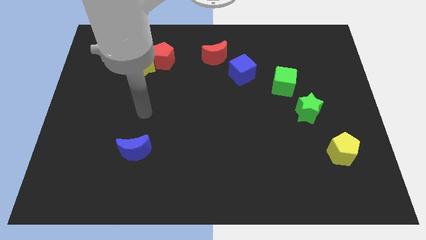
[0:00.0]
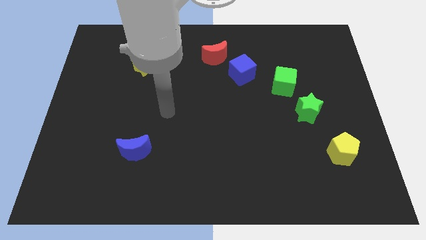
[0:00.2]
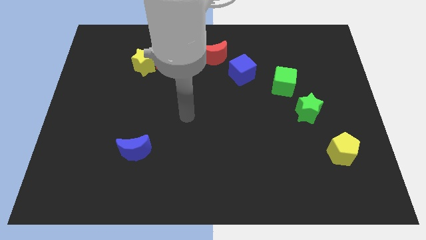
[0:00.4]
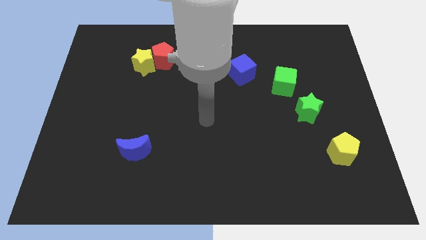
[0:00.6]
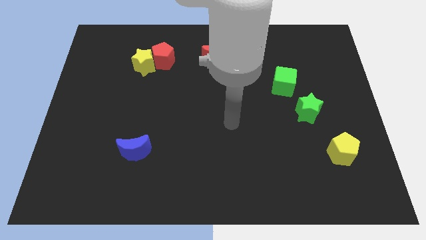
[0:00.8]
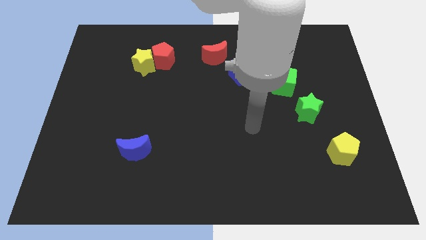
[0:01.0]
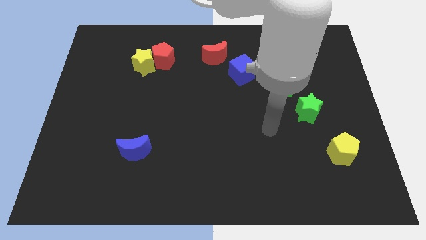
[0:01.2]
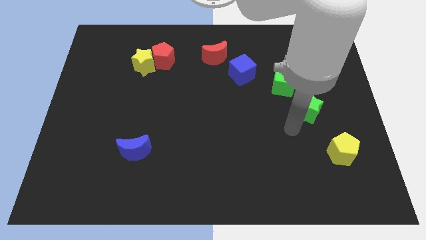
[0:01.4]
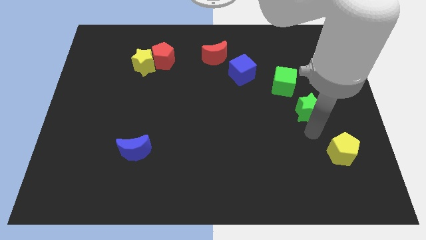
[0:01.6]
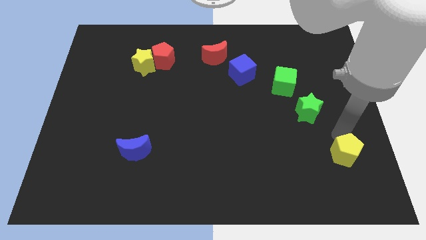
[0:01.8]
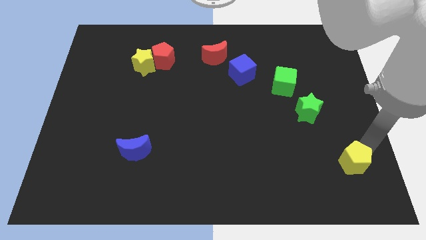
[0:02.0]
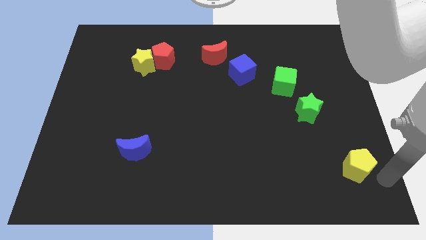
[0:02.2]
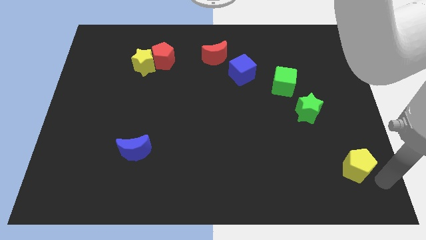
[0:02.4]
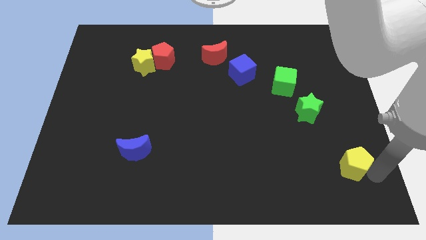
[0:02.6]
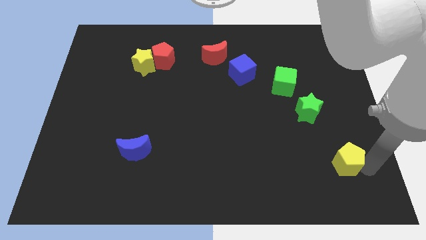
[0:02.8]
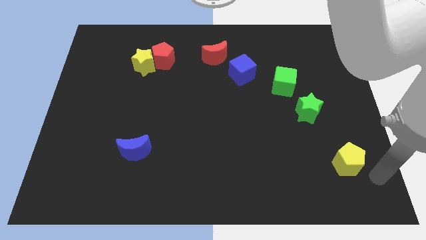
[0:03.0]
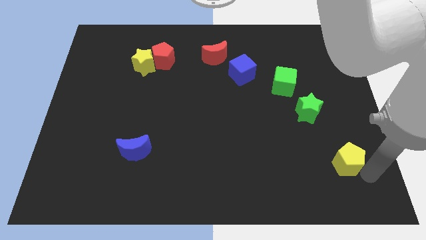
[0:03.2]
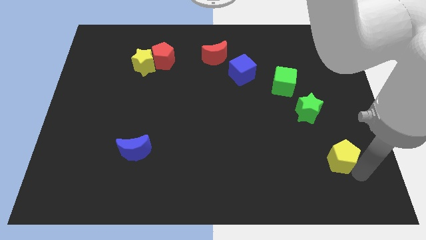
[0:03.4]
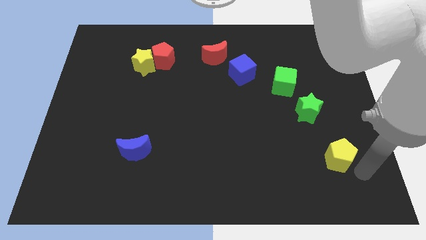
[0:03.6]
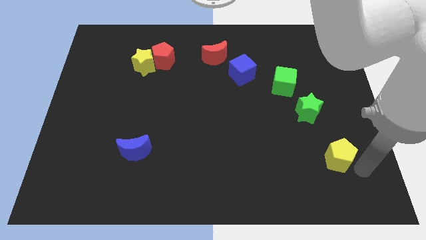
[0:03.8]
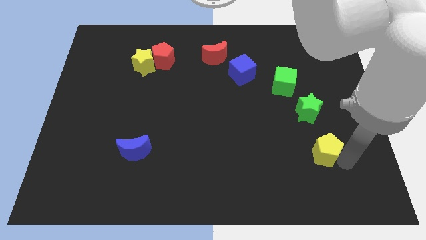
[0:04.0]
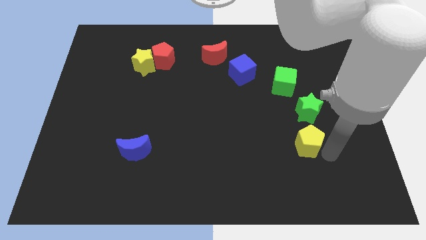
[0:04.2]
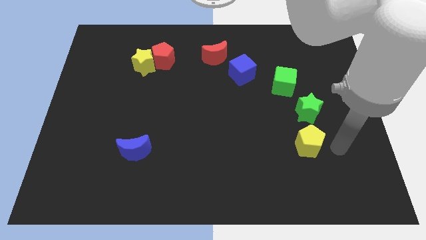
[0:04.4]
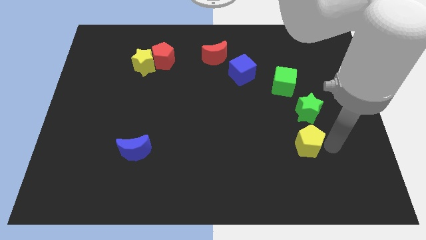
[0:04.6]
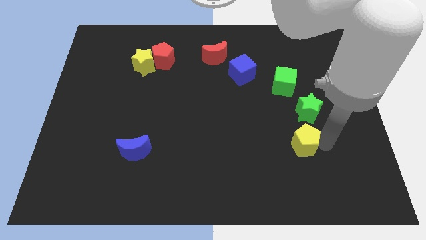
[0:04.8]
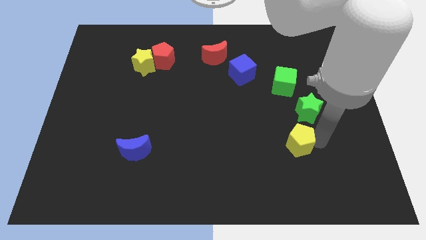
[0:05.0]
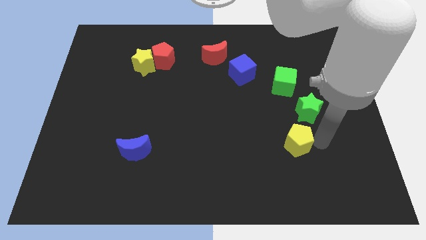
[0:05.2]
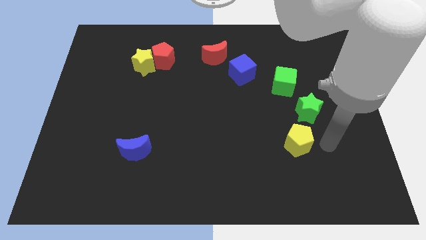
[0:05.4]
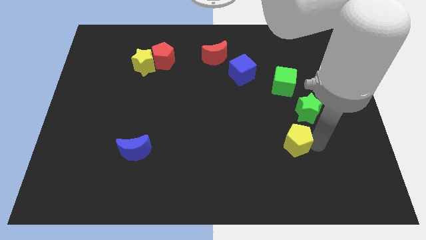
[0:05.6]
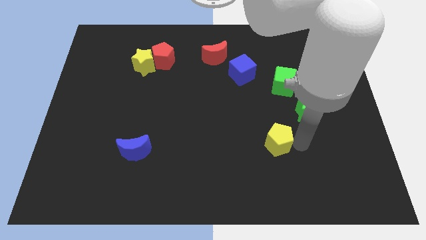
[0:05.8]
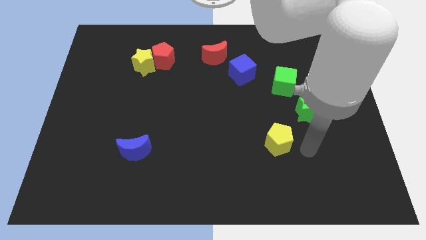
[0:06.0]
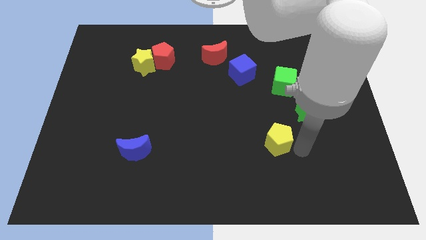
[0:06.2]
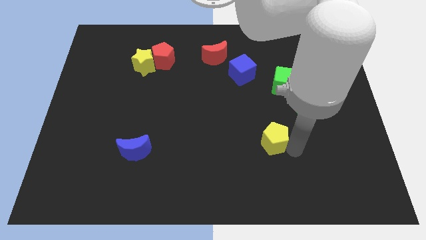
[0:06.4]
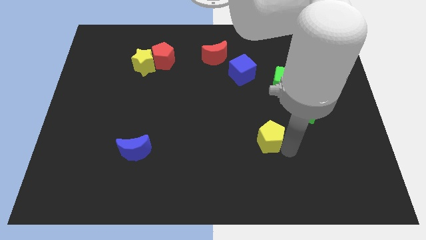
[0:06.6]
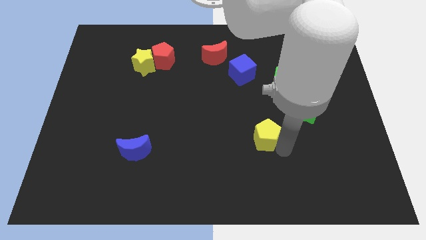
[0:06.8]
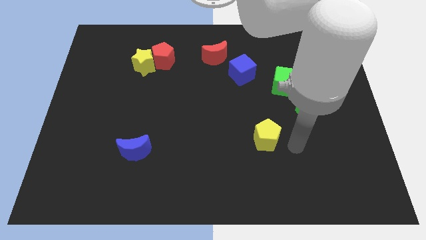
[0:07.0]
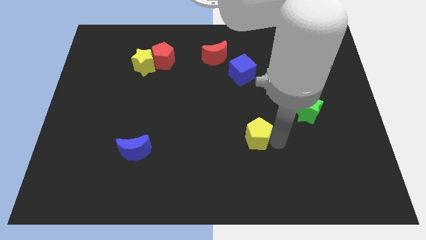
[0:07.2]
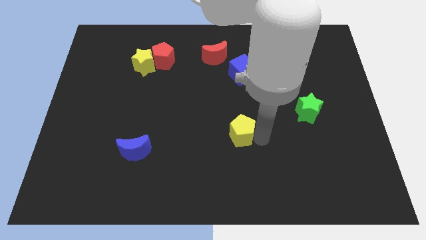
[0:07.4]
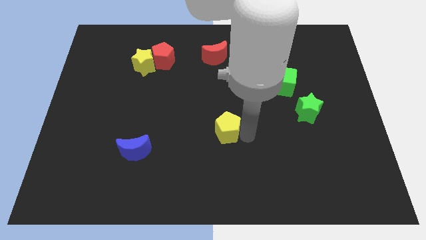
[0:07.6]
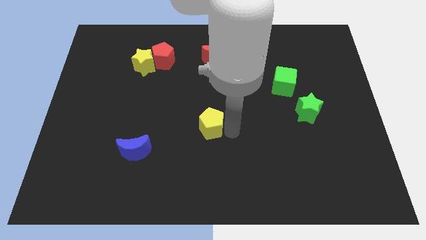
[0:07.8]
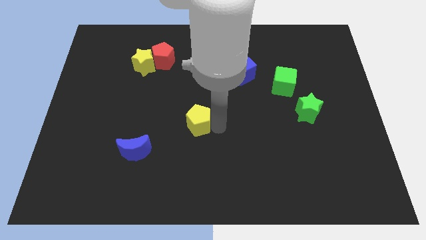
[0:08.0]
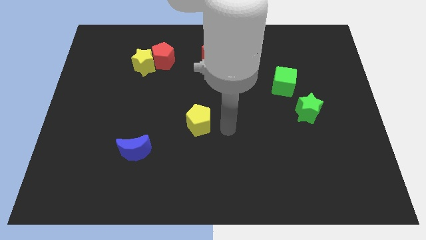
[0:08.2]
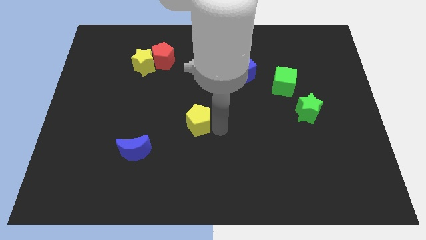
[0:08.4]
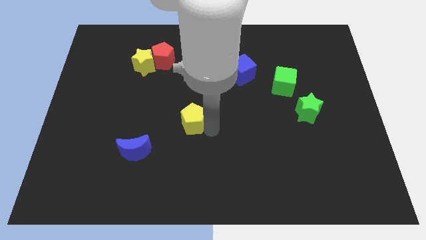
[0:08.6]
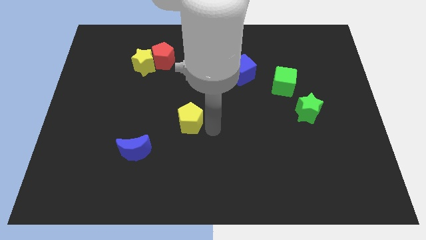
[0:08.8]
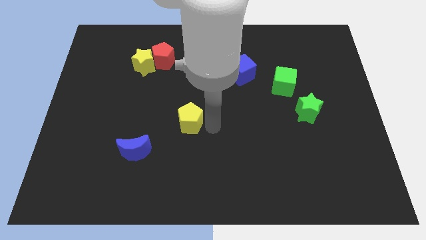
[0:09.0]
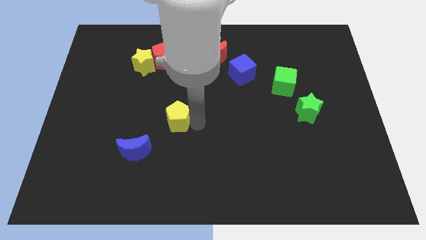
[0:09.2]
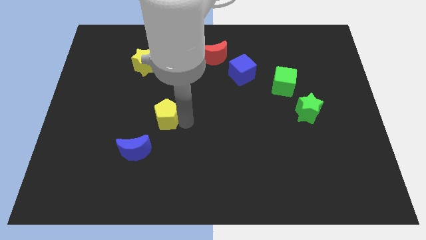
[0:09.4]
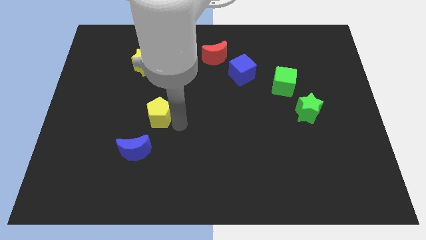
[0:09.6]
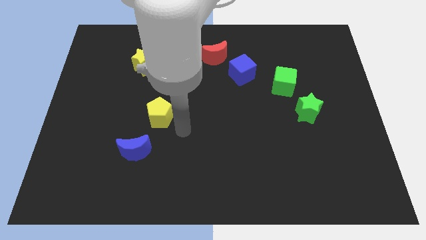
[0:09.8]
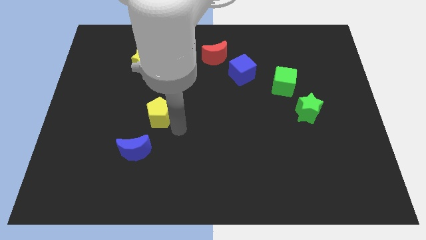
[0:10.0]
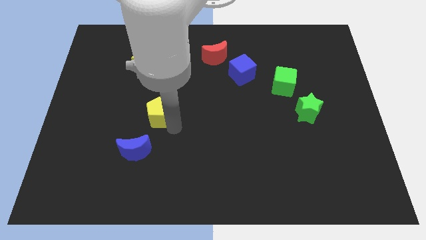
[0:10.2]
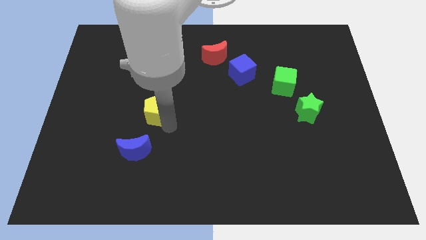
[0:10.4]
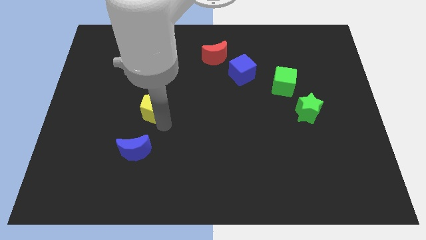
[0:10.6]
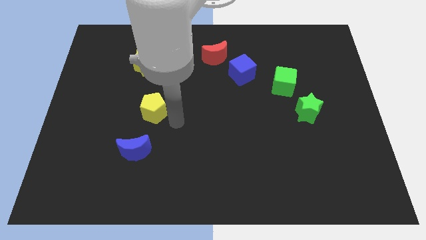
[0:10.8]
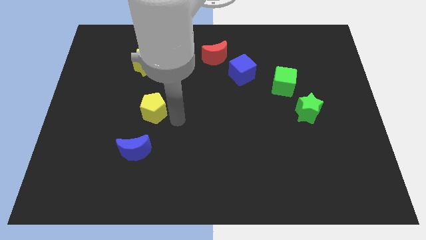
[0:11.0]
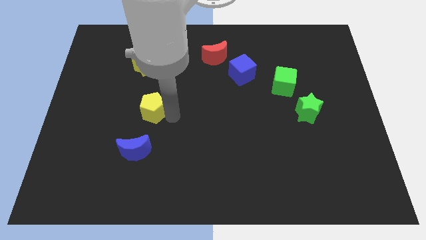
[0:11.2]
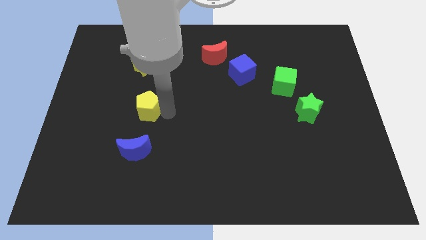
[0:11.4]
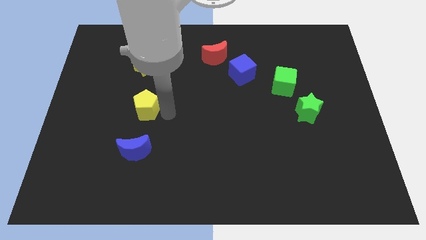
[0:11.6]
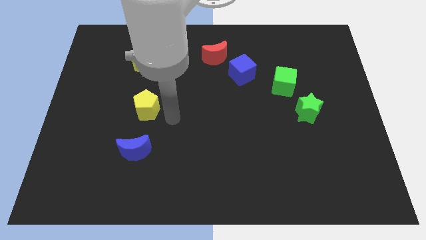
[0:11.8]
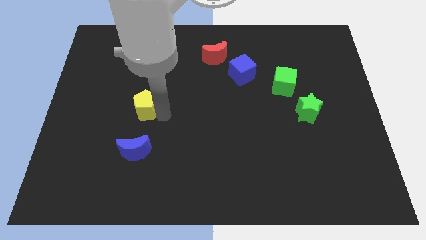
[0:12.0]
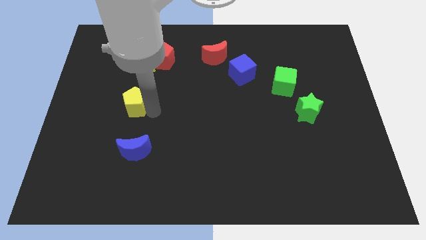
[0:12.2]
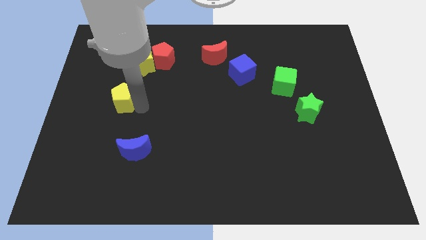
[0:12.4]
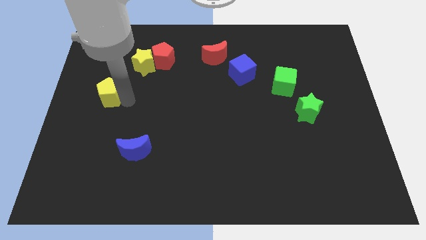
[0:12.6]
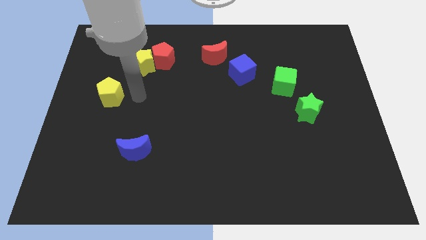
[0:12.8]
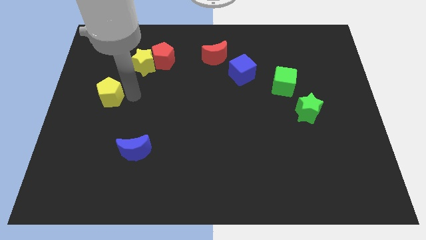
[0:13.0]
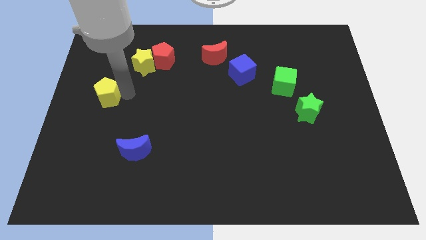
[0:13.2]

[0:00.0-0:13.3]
move the yellow pentagon to the left side
